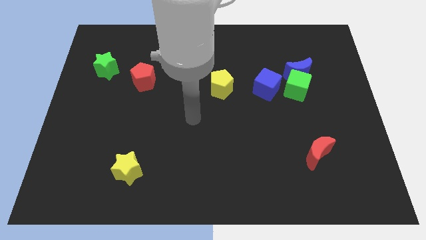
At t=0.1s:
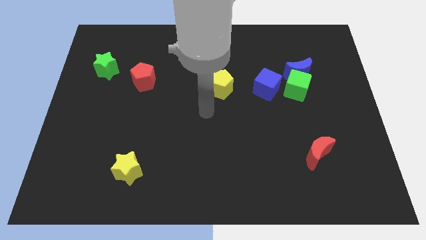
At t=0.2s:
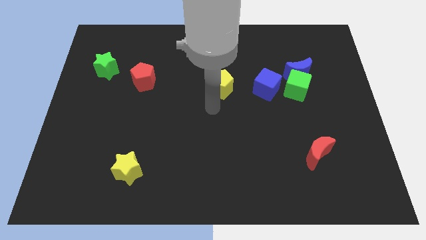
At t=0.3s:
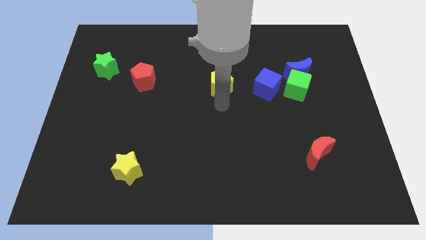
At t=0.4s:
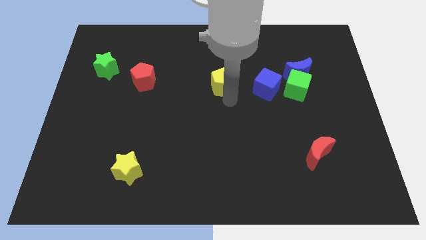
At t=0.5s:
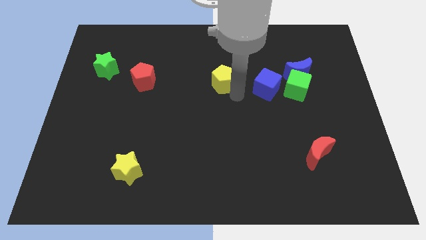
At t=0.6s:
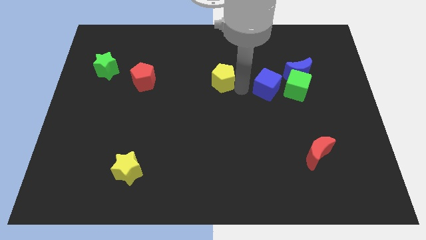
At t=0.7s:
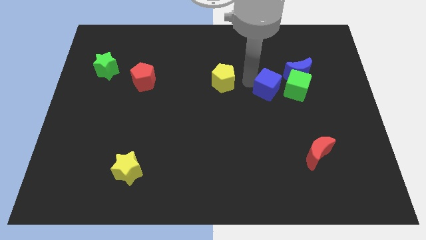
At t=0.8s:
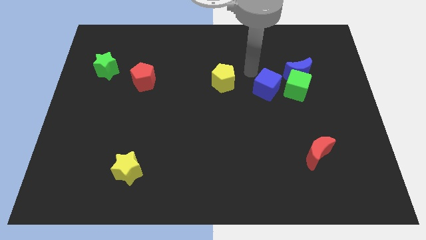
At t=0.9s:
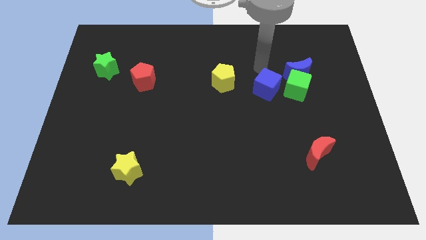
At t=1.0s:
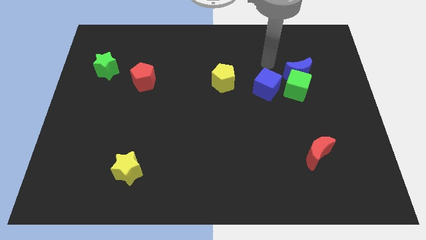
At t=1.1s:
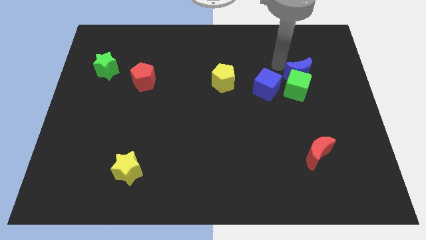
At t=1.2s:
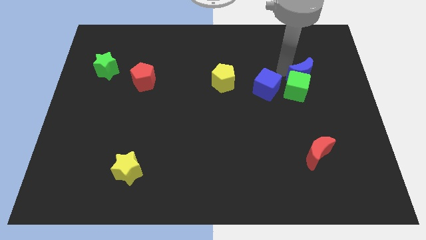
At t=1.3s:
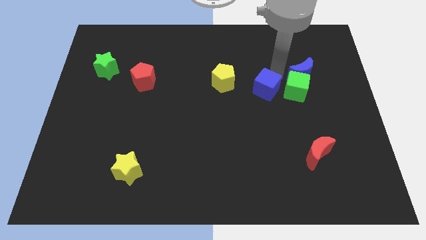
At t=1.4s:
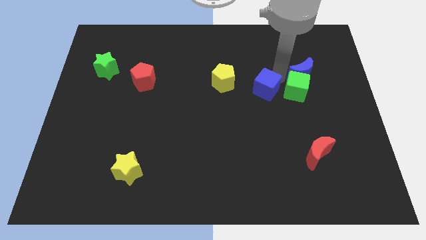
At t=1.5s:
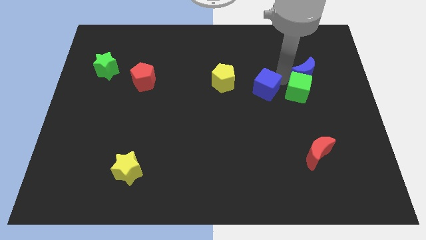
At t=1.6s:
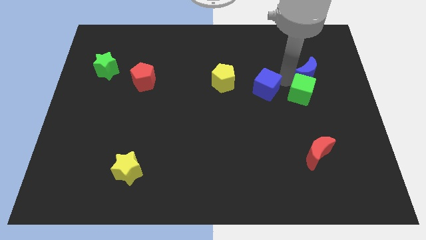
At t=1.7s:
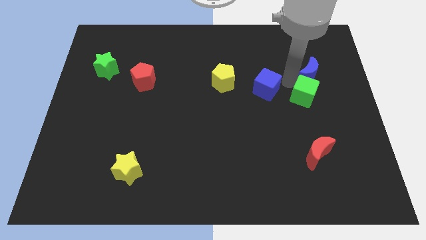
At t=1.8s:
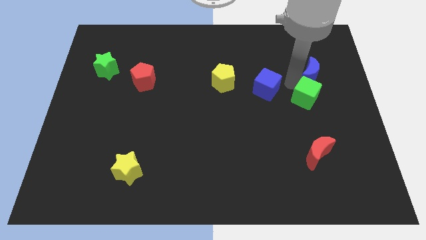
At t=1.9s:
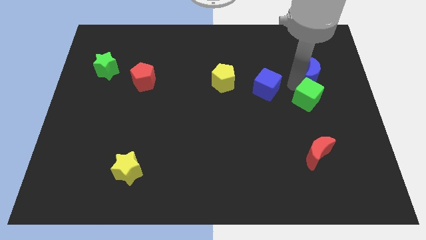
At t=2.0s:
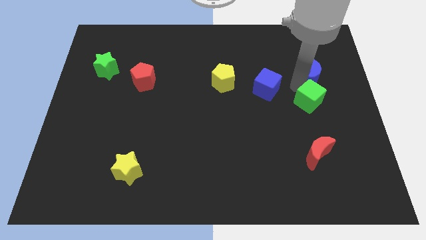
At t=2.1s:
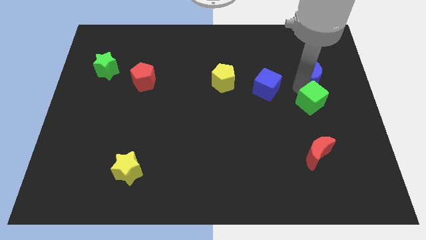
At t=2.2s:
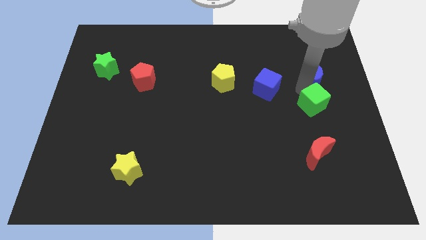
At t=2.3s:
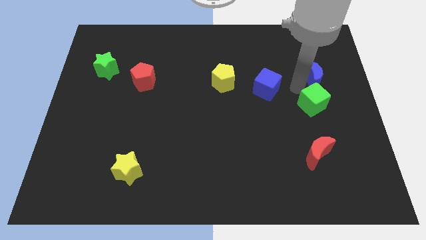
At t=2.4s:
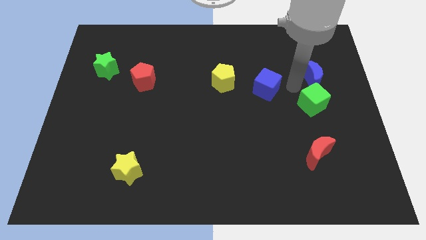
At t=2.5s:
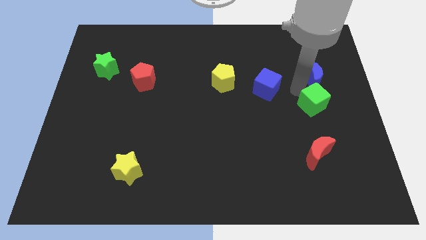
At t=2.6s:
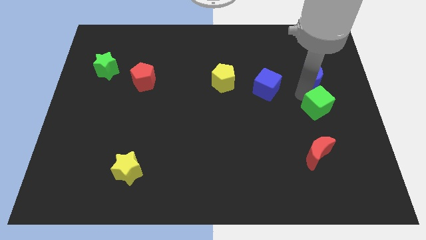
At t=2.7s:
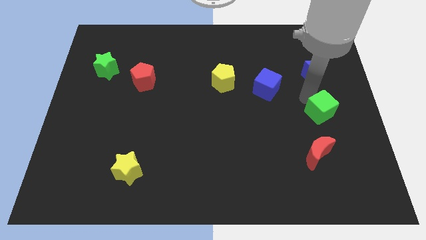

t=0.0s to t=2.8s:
move the green cube away from the blue moon and blue cube

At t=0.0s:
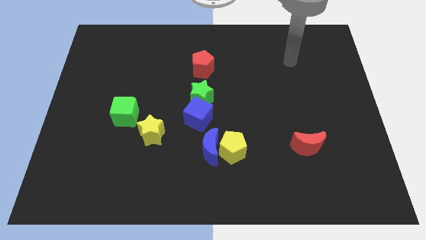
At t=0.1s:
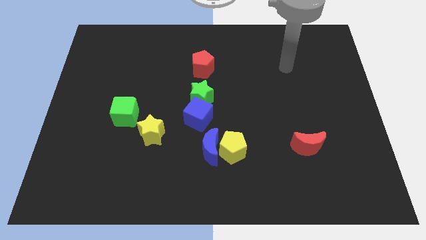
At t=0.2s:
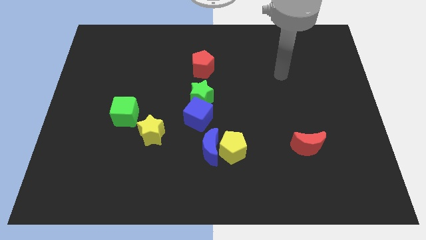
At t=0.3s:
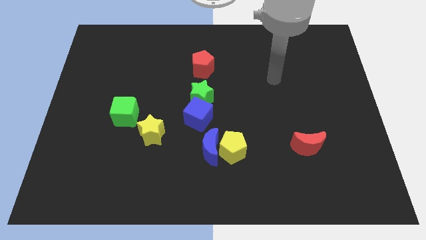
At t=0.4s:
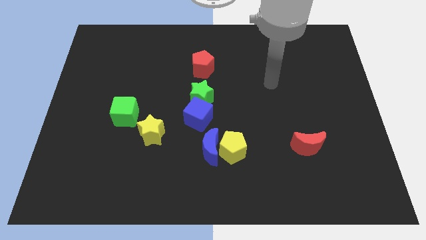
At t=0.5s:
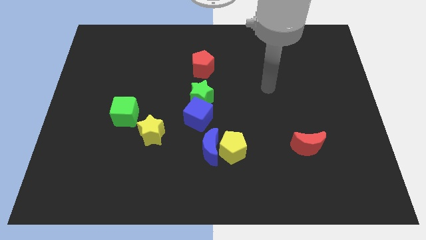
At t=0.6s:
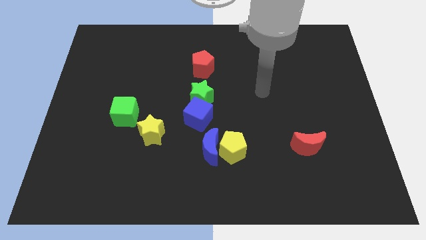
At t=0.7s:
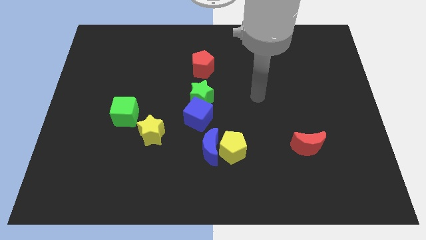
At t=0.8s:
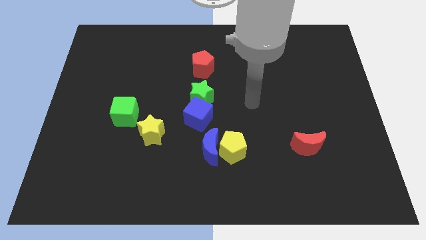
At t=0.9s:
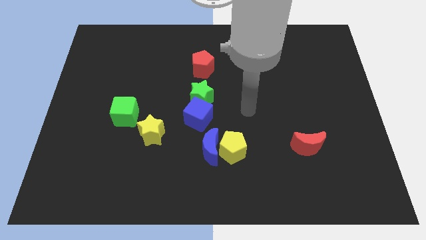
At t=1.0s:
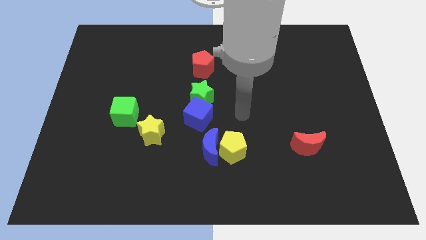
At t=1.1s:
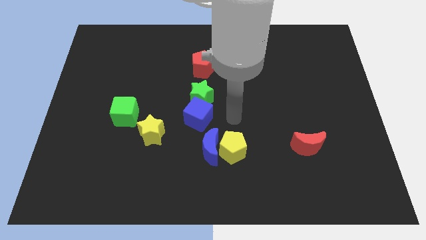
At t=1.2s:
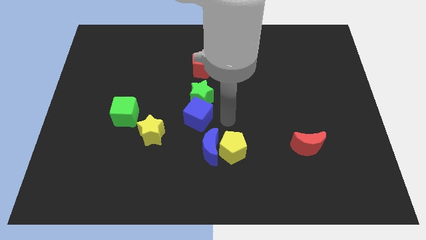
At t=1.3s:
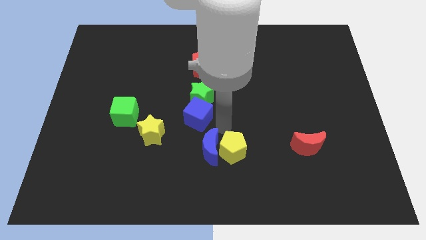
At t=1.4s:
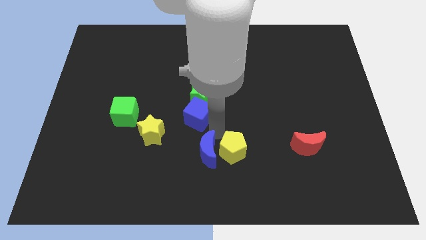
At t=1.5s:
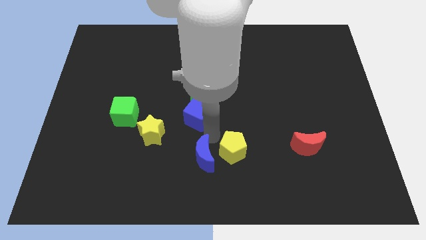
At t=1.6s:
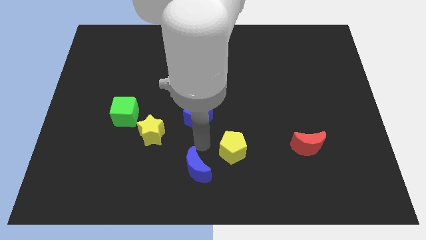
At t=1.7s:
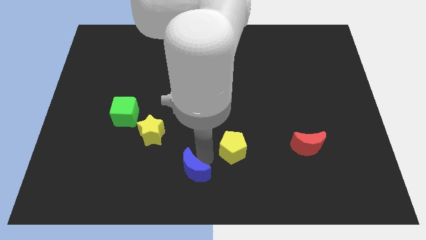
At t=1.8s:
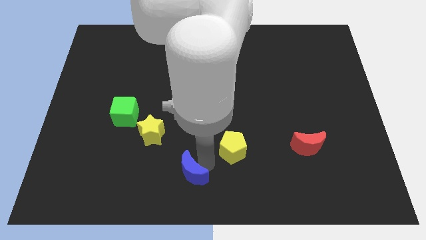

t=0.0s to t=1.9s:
separate the yellow pentagon from the blue moon

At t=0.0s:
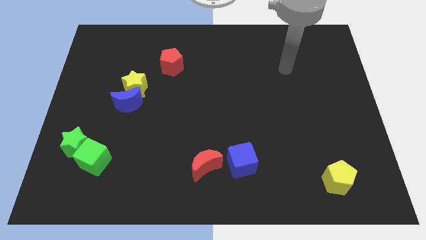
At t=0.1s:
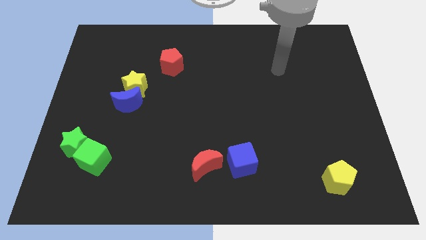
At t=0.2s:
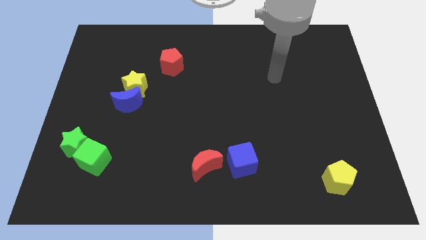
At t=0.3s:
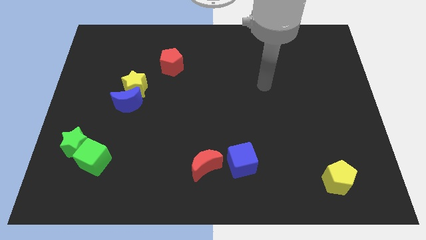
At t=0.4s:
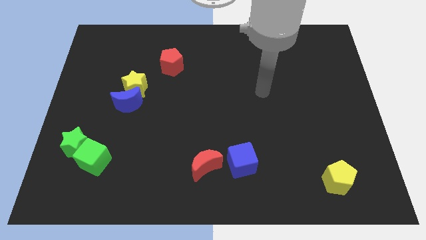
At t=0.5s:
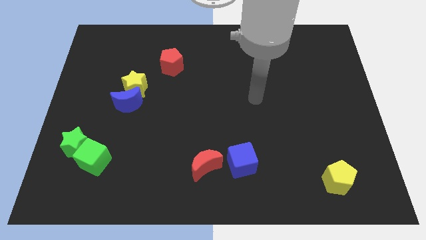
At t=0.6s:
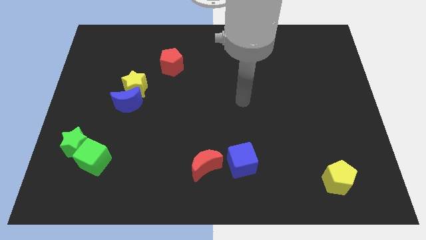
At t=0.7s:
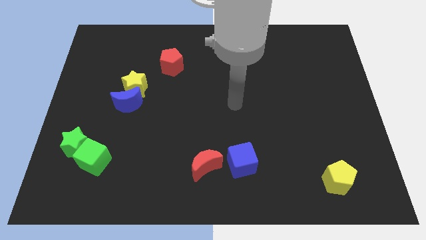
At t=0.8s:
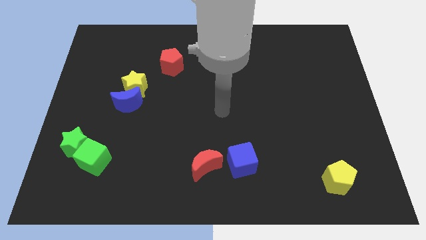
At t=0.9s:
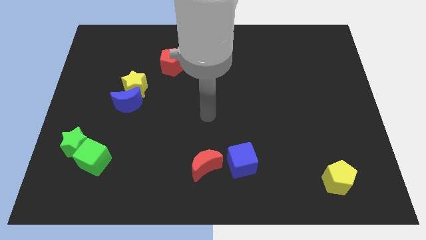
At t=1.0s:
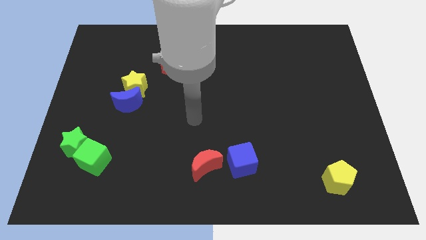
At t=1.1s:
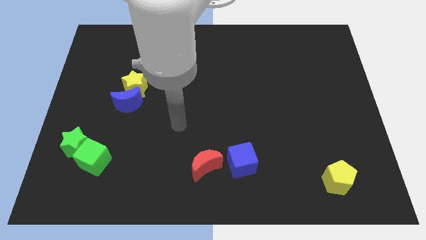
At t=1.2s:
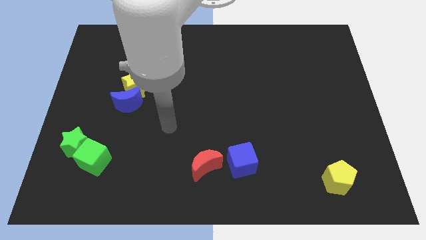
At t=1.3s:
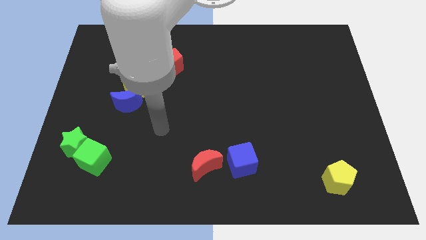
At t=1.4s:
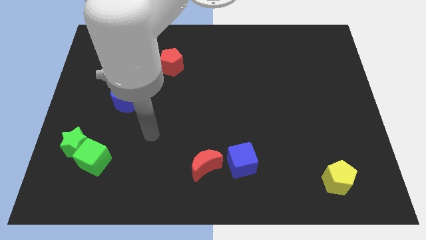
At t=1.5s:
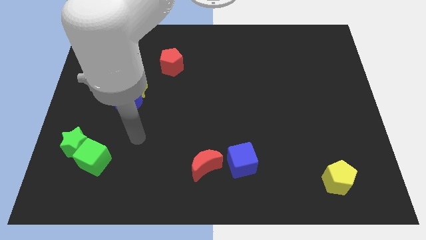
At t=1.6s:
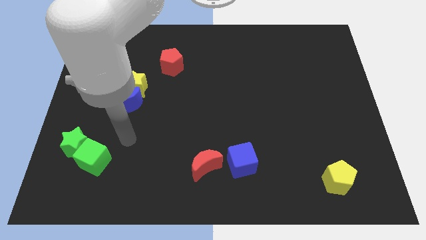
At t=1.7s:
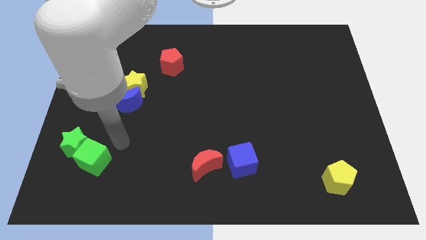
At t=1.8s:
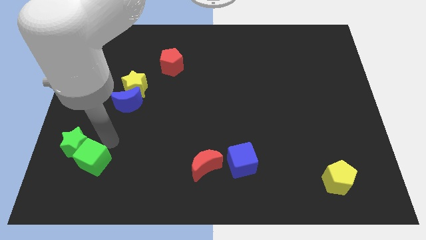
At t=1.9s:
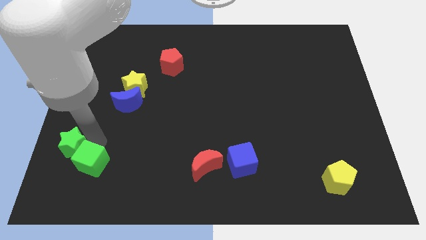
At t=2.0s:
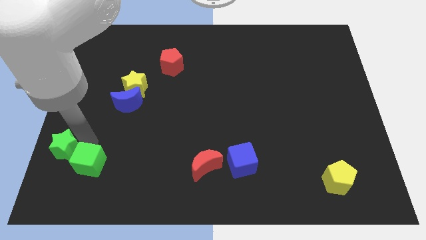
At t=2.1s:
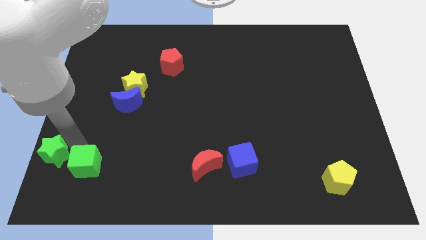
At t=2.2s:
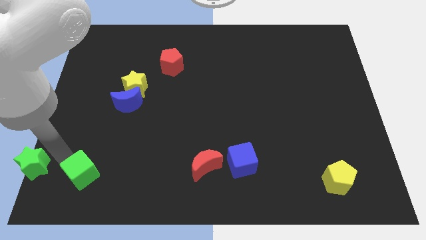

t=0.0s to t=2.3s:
separate the green cube from the green star

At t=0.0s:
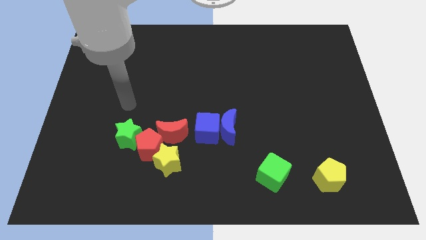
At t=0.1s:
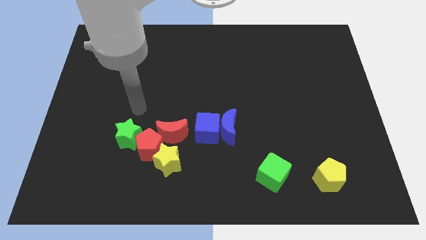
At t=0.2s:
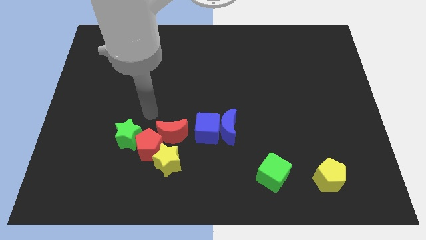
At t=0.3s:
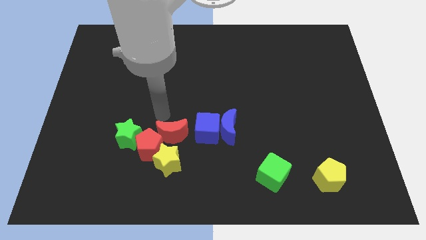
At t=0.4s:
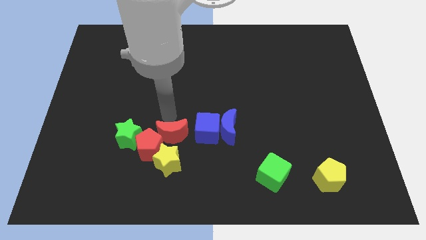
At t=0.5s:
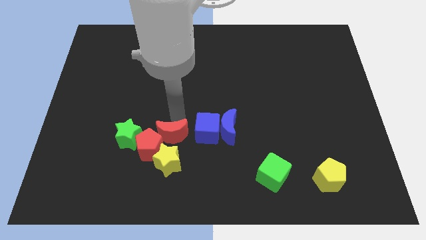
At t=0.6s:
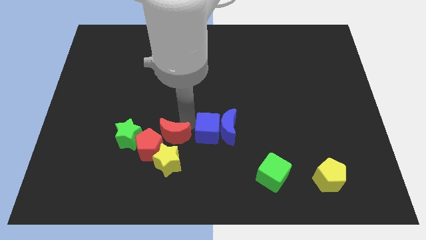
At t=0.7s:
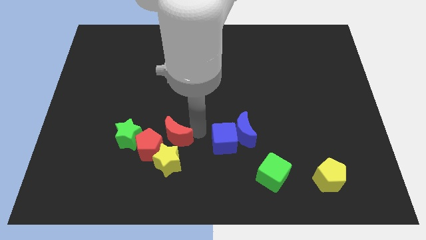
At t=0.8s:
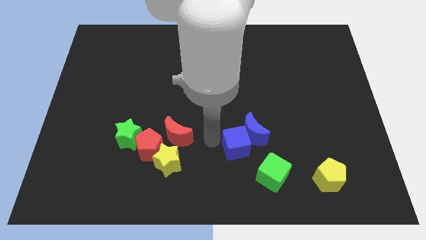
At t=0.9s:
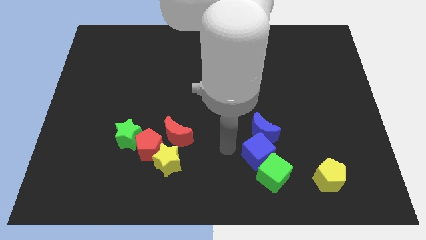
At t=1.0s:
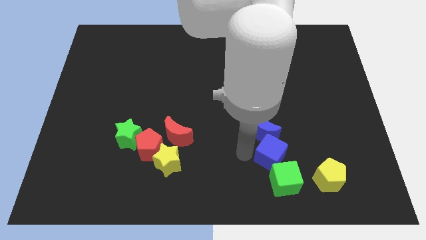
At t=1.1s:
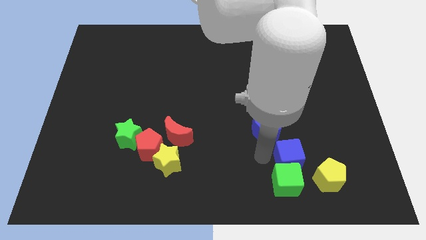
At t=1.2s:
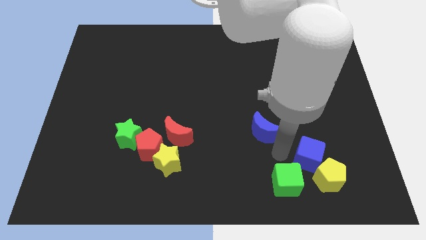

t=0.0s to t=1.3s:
pull the blue moon apart from the blue cube

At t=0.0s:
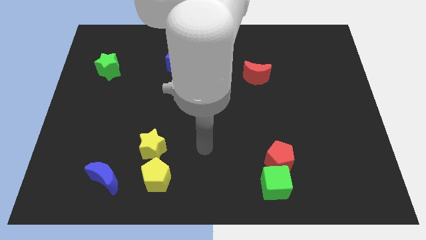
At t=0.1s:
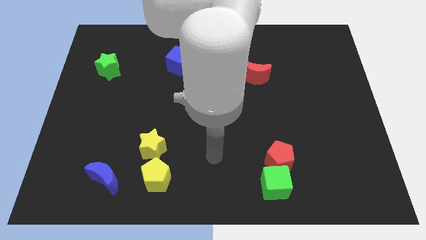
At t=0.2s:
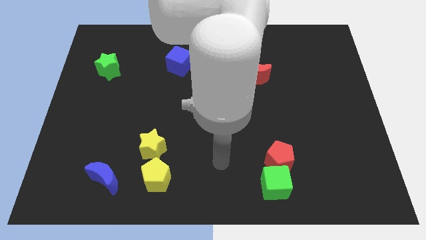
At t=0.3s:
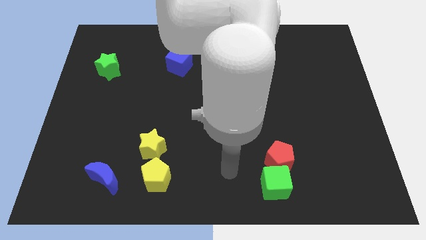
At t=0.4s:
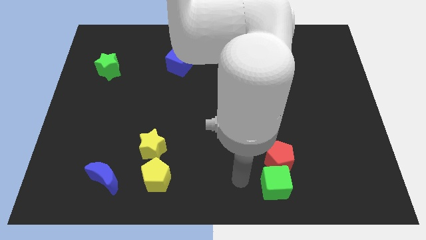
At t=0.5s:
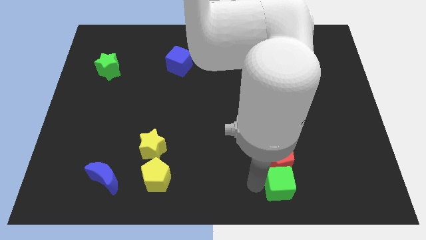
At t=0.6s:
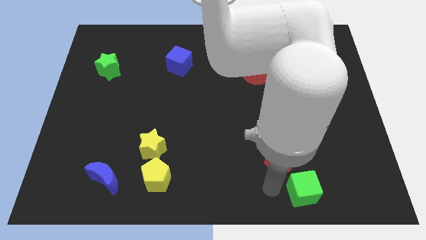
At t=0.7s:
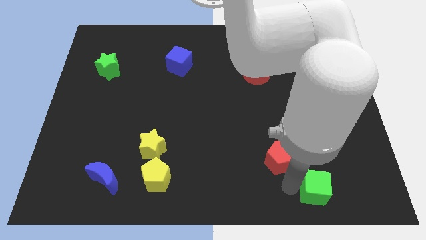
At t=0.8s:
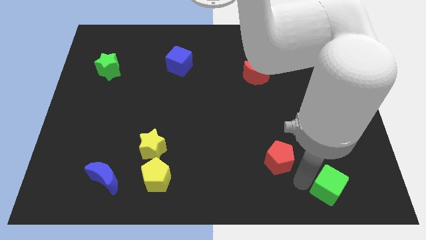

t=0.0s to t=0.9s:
pull the red pentagon apart from the green cube

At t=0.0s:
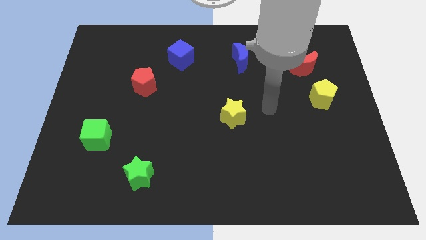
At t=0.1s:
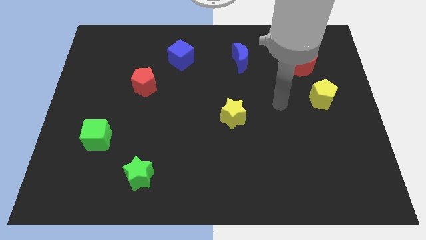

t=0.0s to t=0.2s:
pull the red moon apart from the yellow pentagon
